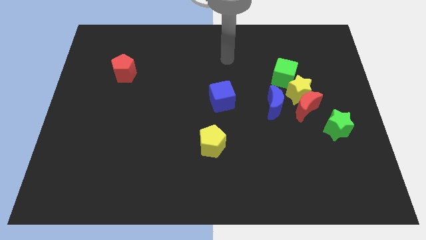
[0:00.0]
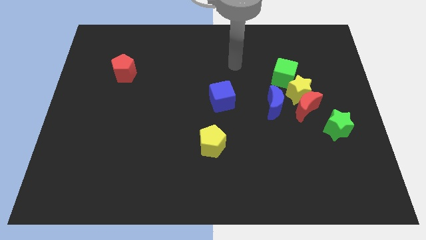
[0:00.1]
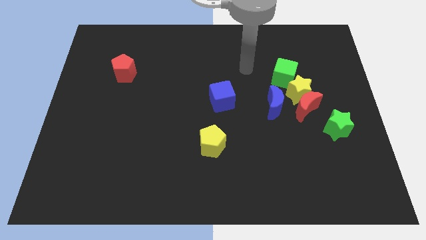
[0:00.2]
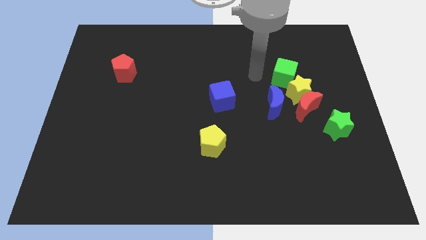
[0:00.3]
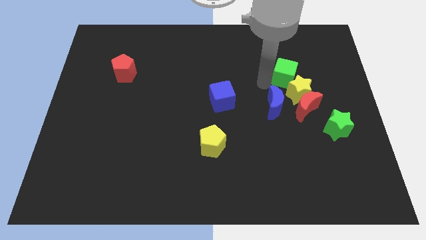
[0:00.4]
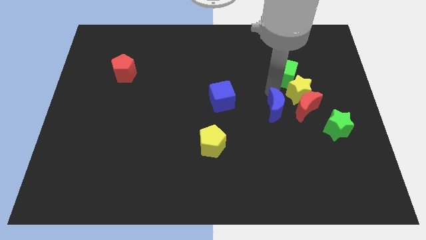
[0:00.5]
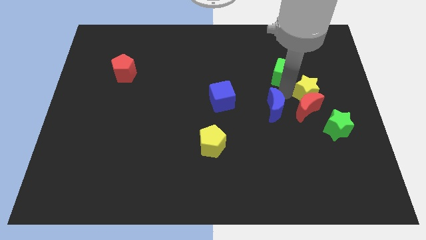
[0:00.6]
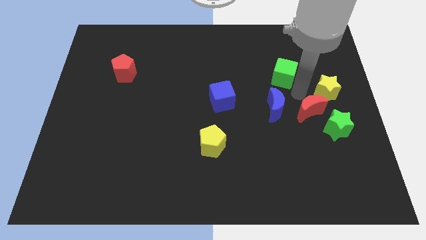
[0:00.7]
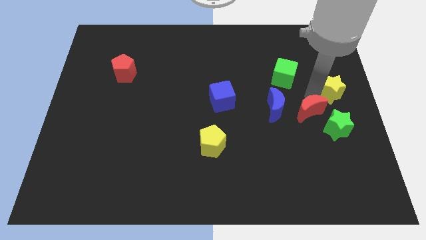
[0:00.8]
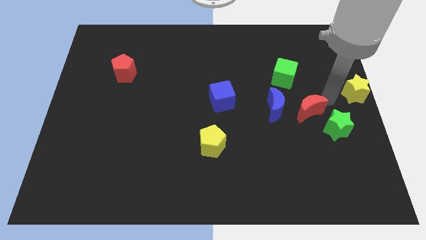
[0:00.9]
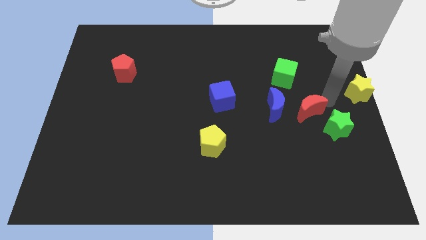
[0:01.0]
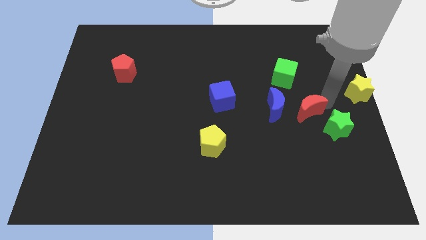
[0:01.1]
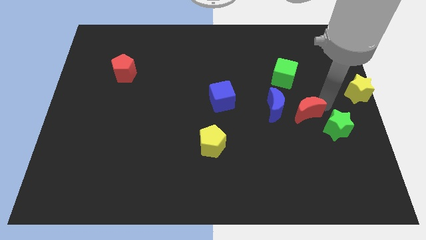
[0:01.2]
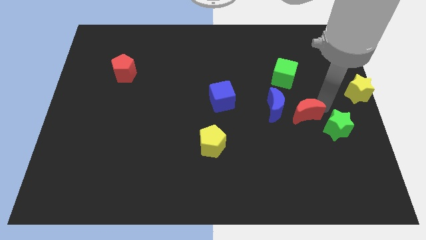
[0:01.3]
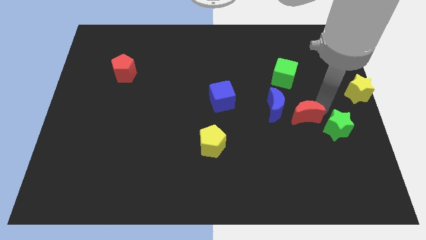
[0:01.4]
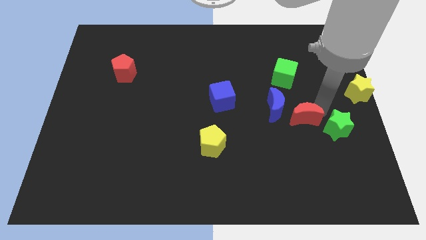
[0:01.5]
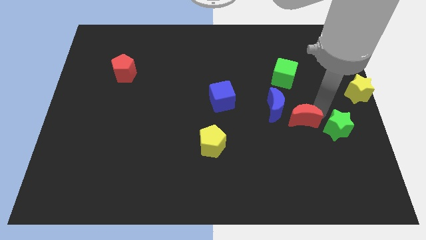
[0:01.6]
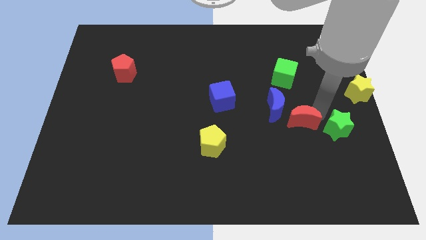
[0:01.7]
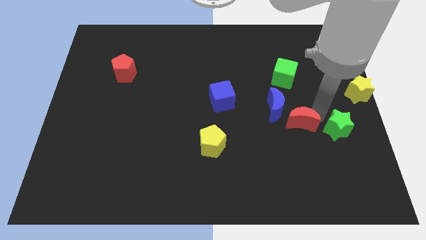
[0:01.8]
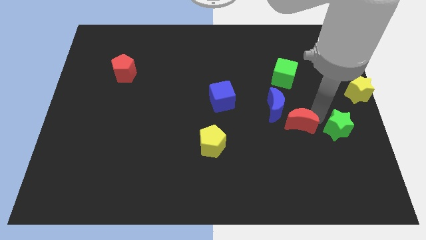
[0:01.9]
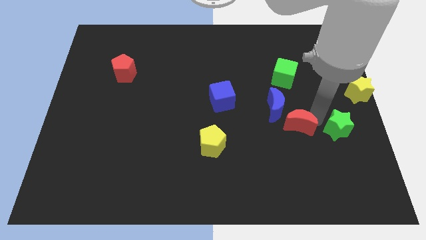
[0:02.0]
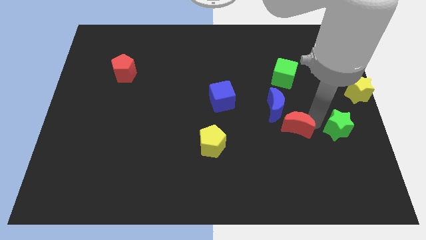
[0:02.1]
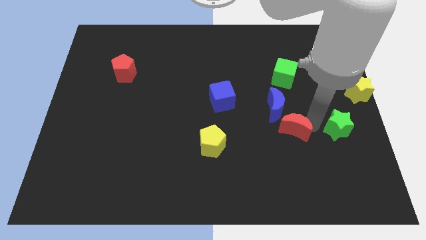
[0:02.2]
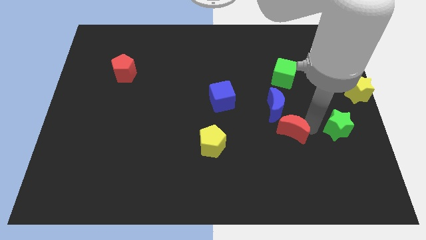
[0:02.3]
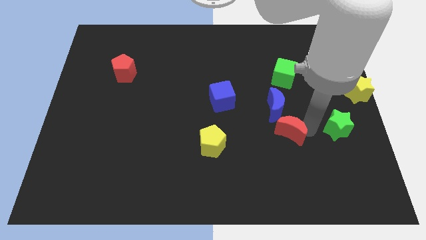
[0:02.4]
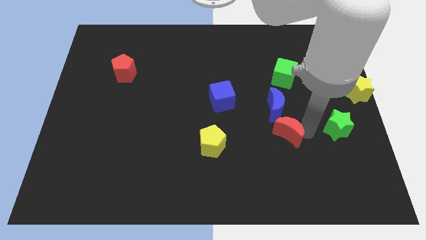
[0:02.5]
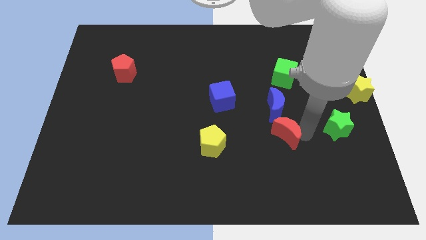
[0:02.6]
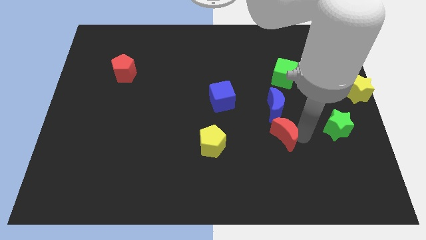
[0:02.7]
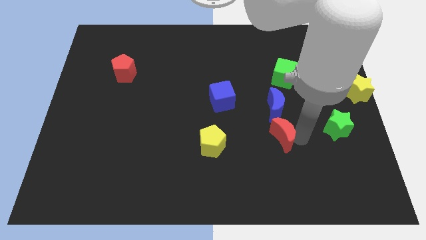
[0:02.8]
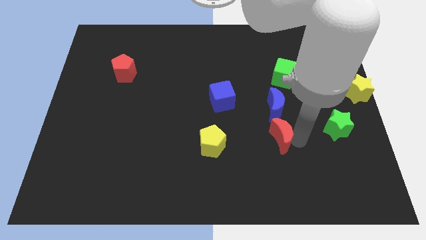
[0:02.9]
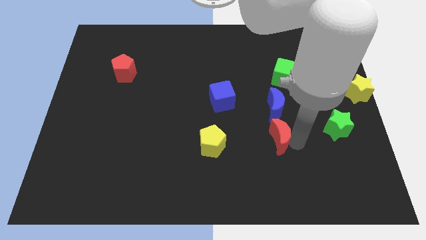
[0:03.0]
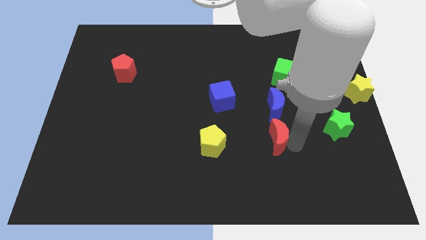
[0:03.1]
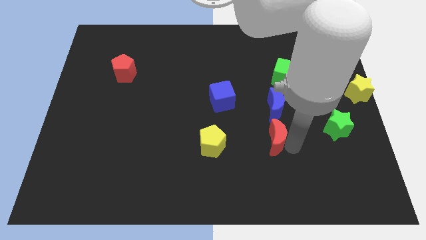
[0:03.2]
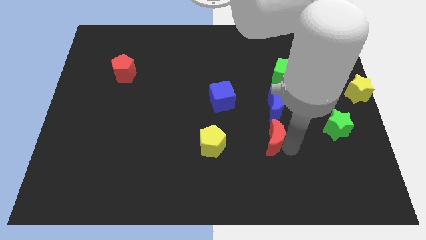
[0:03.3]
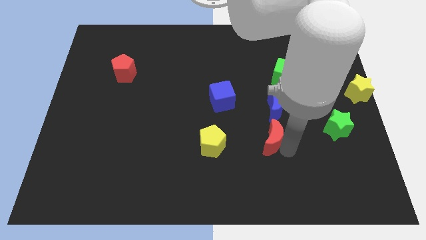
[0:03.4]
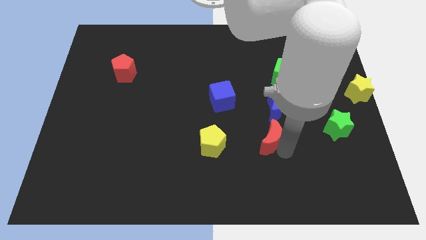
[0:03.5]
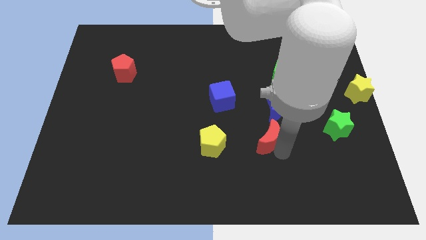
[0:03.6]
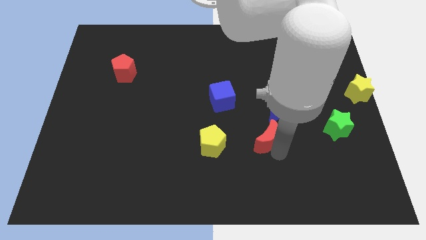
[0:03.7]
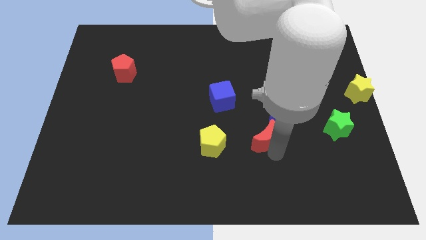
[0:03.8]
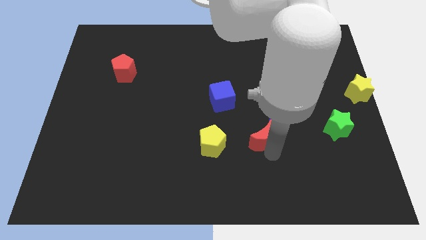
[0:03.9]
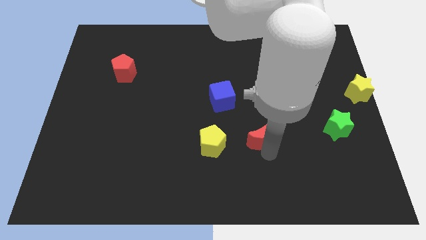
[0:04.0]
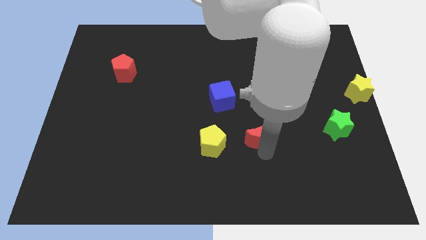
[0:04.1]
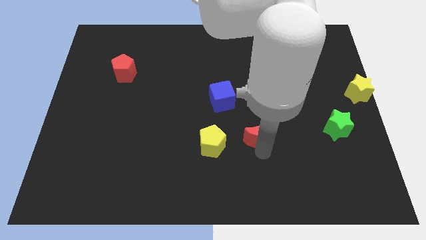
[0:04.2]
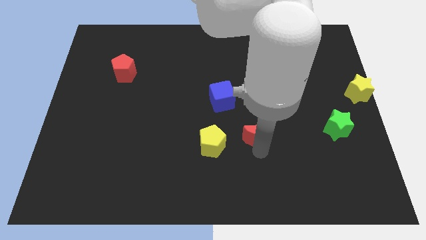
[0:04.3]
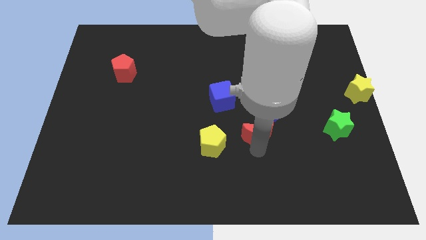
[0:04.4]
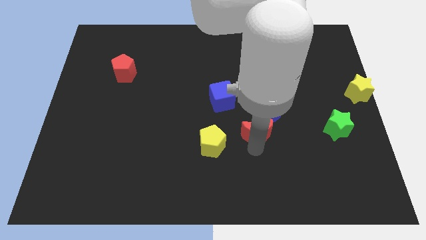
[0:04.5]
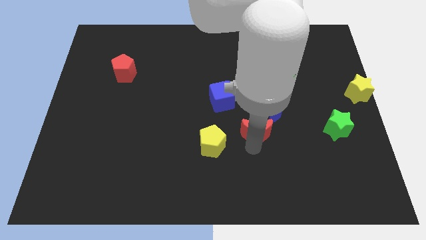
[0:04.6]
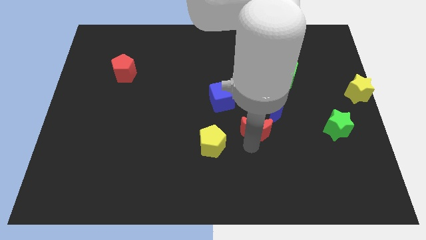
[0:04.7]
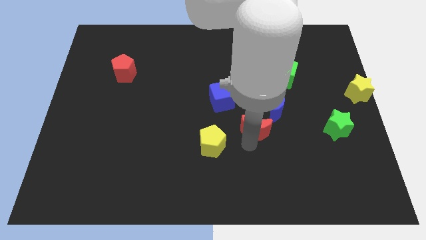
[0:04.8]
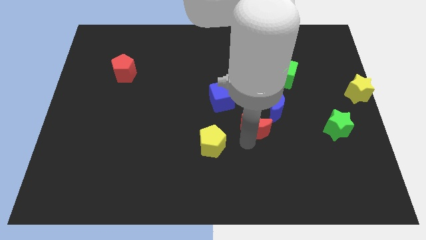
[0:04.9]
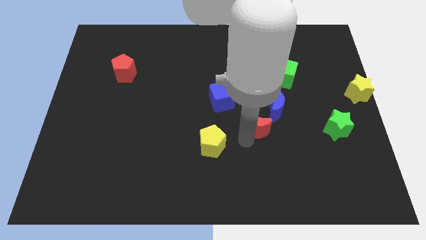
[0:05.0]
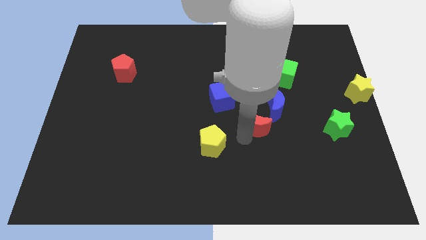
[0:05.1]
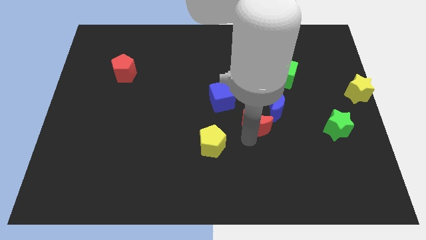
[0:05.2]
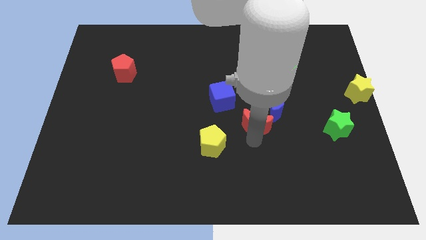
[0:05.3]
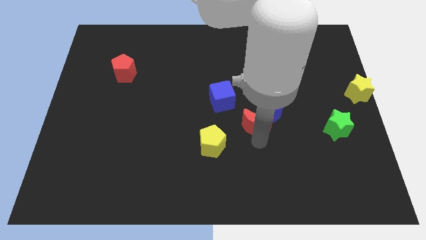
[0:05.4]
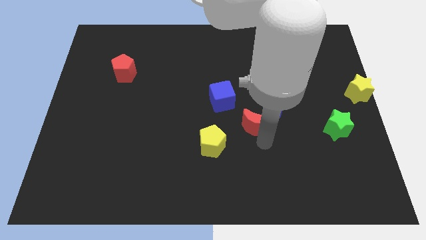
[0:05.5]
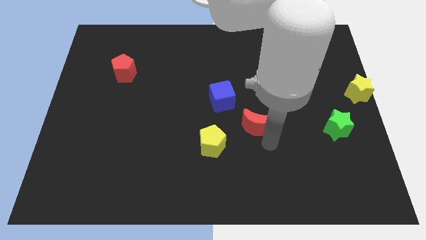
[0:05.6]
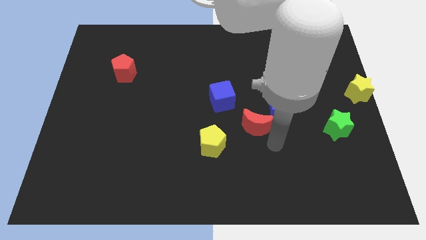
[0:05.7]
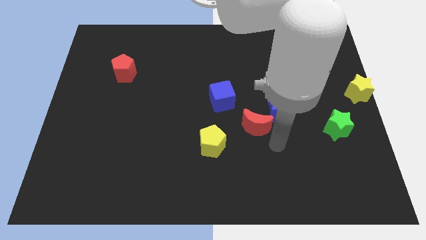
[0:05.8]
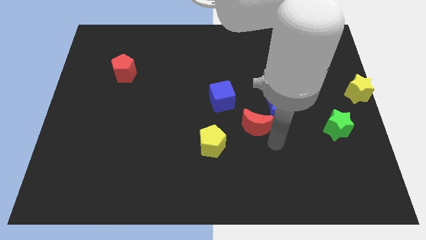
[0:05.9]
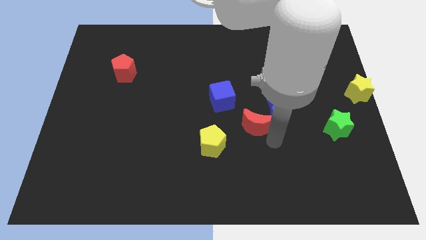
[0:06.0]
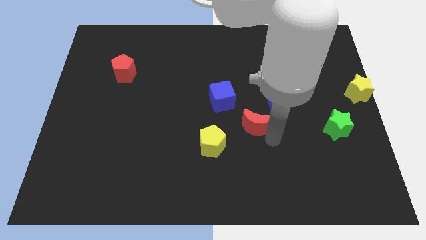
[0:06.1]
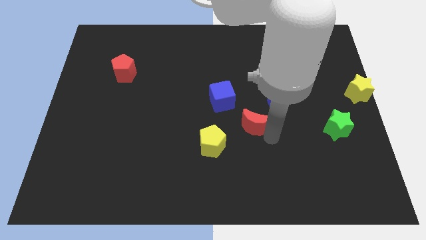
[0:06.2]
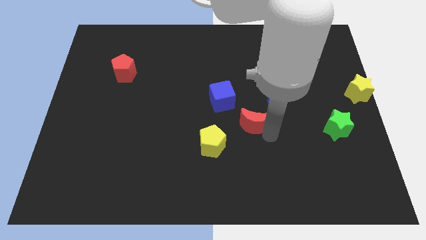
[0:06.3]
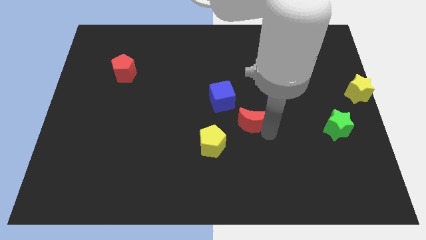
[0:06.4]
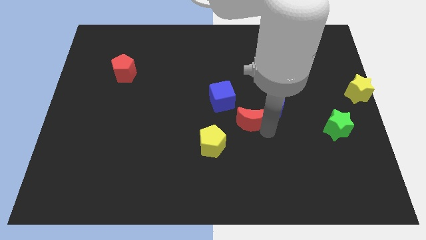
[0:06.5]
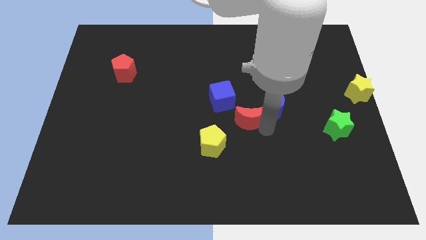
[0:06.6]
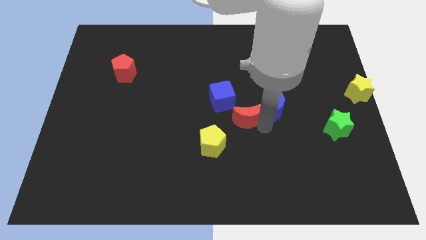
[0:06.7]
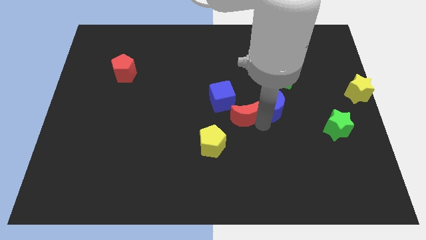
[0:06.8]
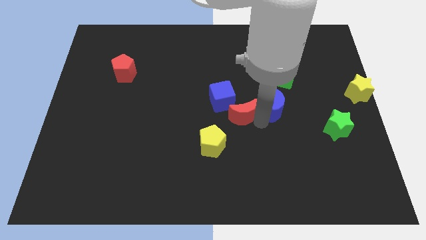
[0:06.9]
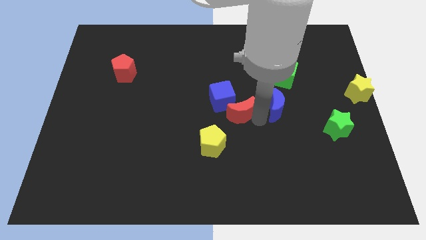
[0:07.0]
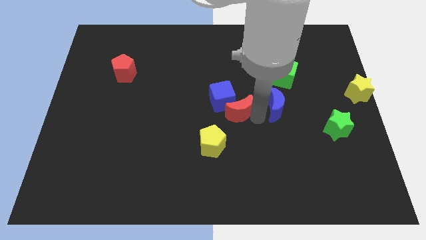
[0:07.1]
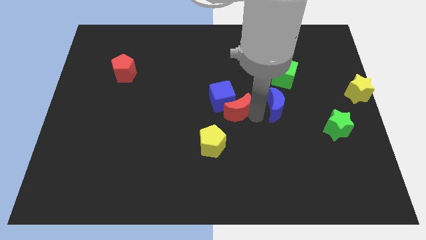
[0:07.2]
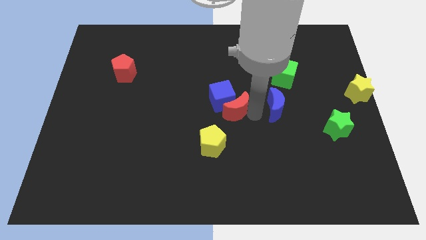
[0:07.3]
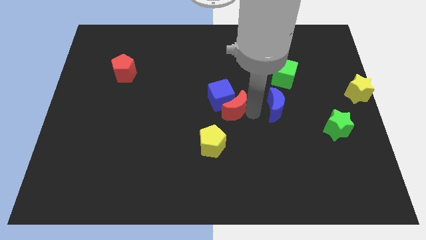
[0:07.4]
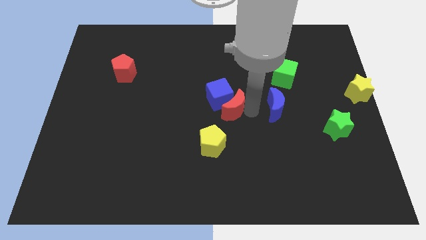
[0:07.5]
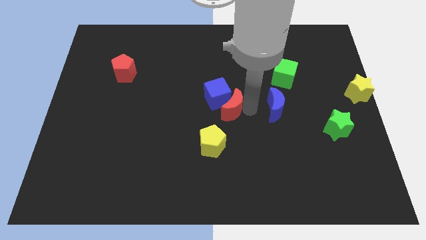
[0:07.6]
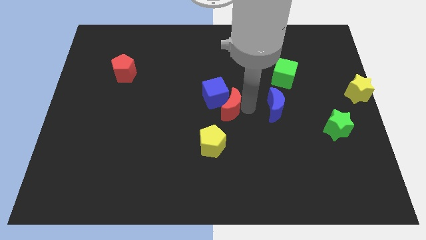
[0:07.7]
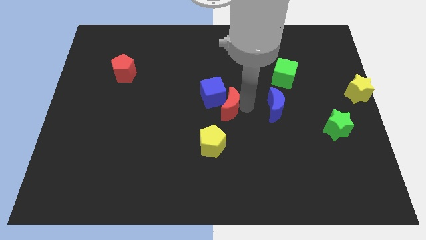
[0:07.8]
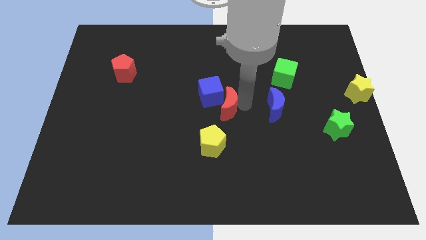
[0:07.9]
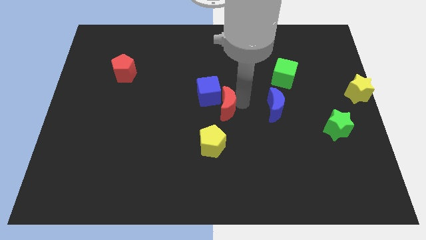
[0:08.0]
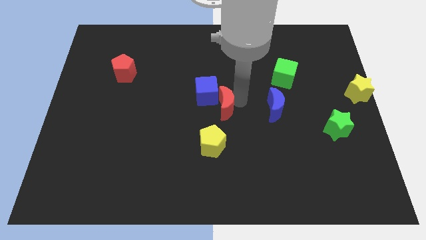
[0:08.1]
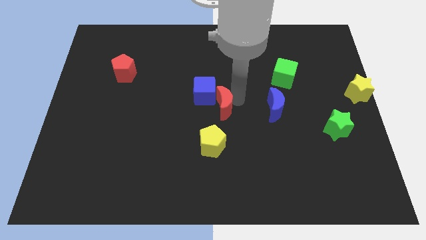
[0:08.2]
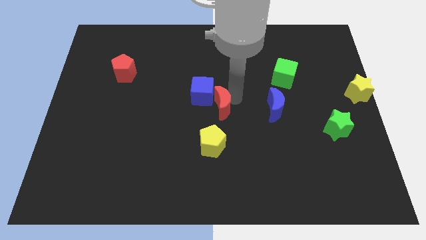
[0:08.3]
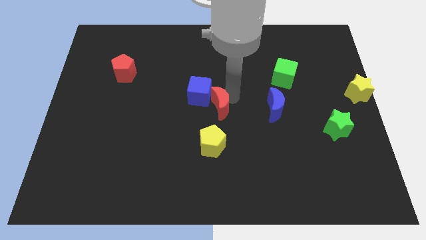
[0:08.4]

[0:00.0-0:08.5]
move the red moon left
